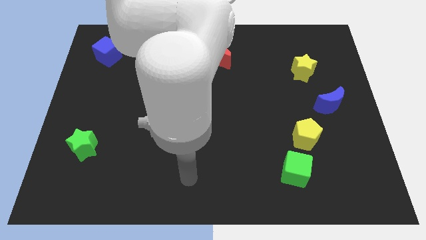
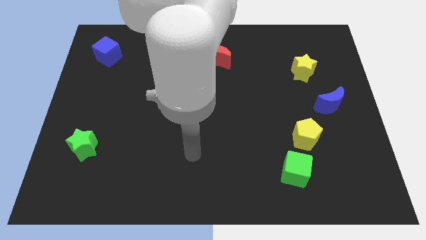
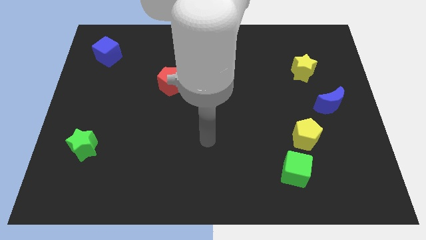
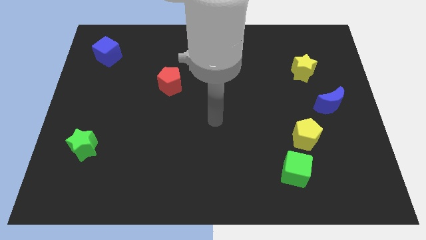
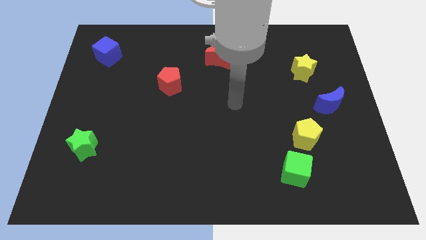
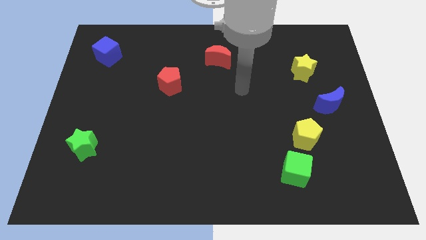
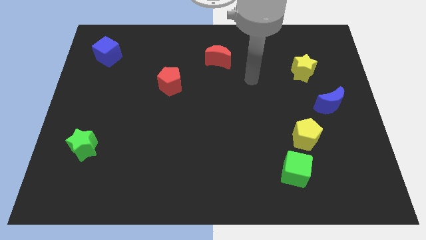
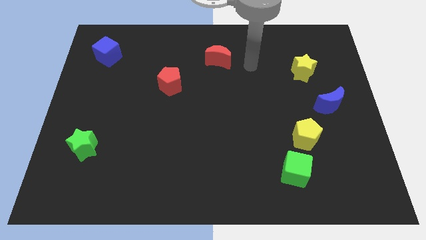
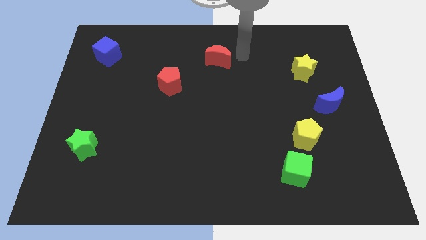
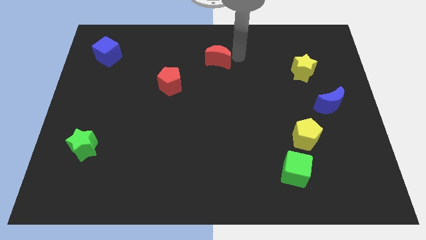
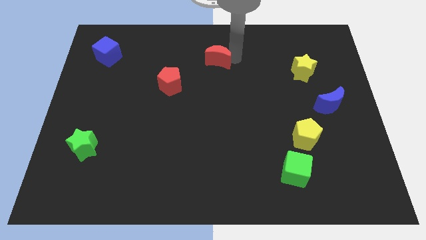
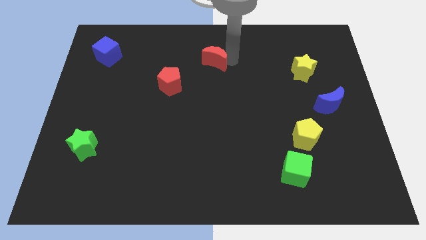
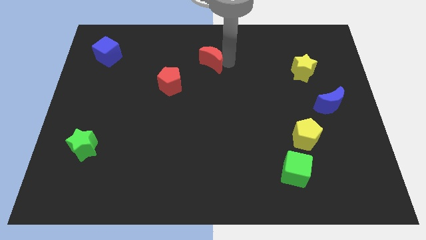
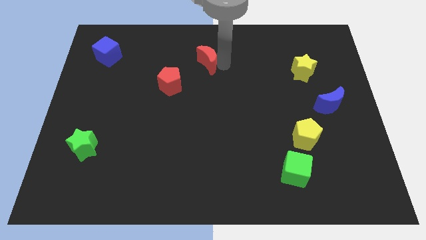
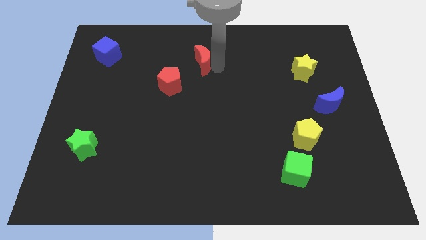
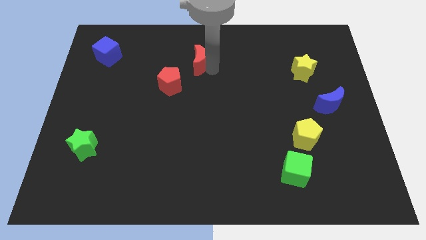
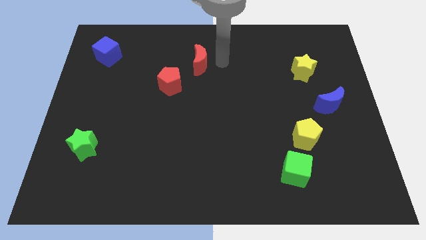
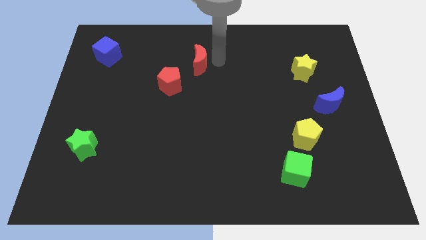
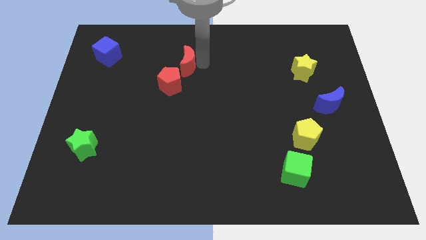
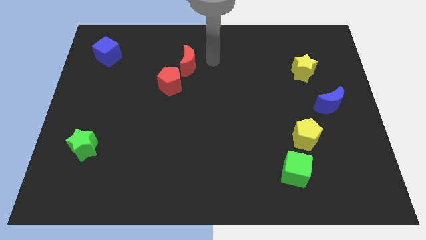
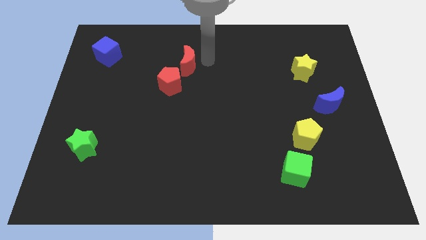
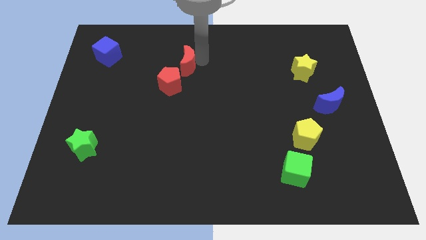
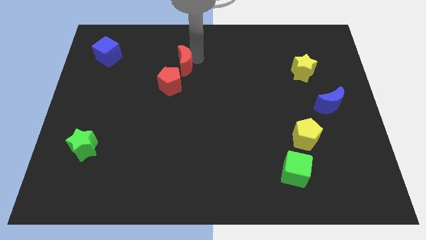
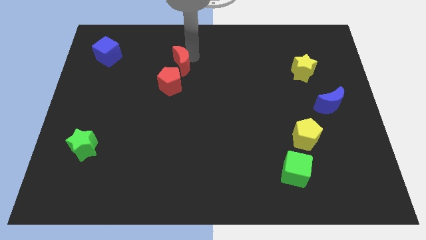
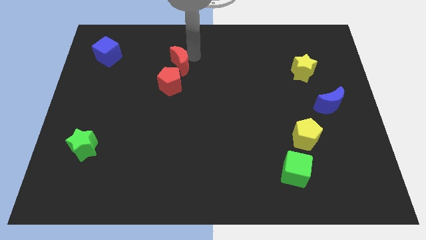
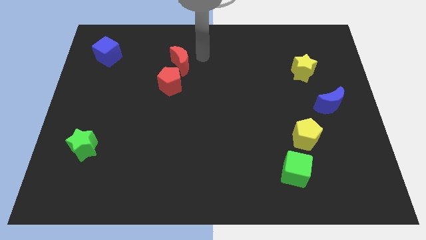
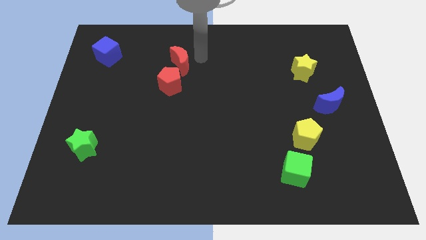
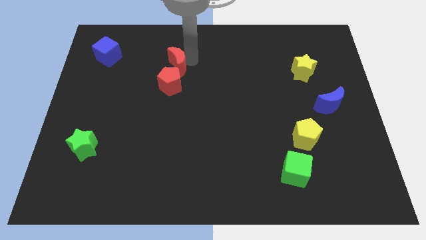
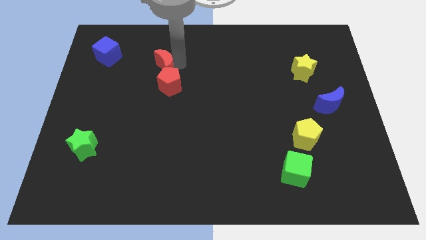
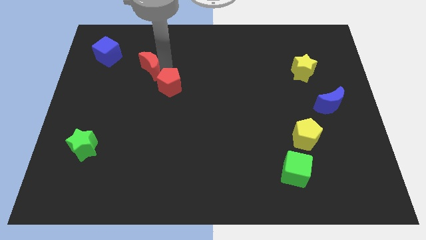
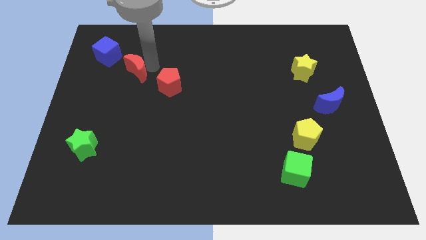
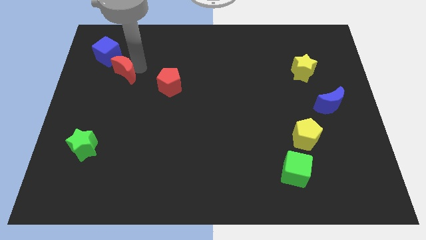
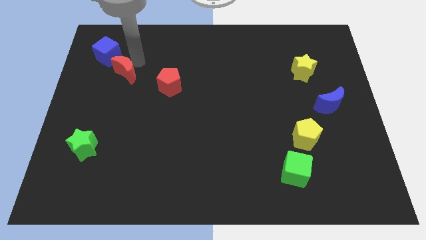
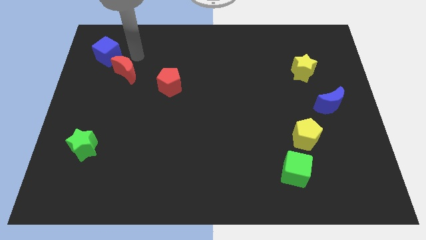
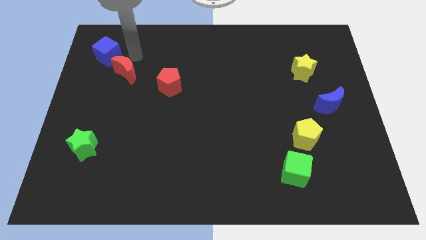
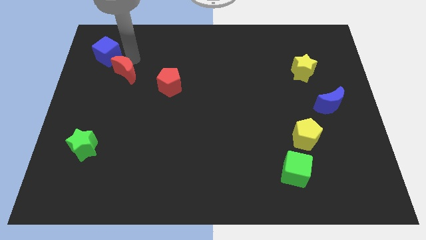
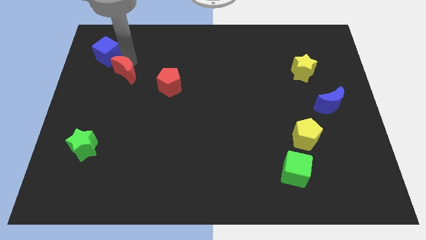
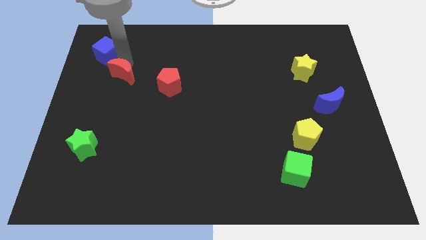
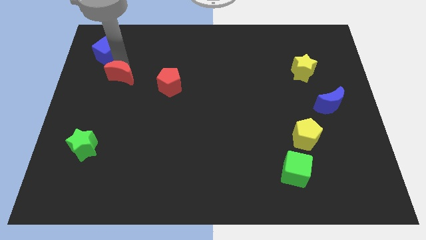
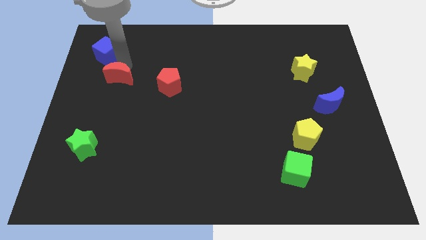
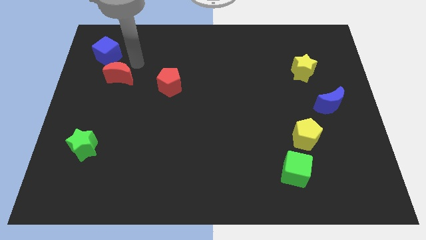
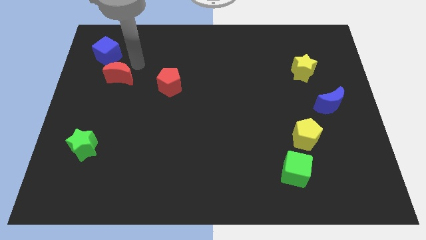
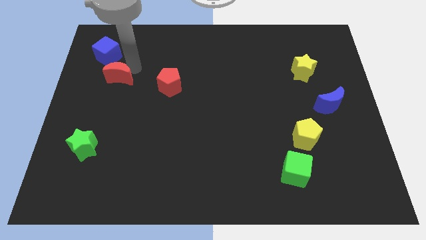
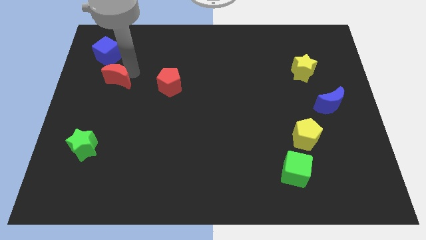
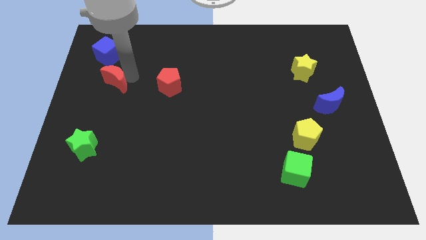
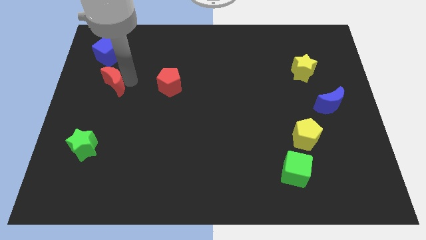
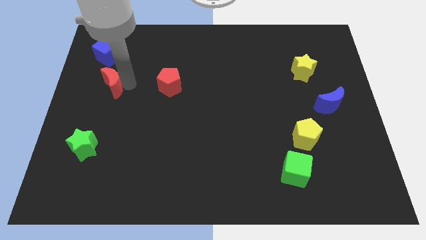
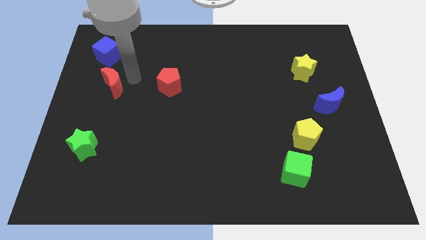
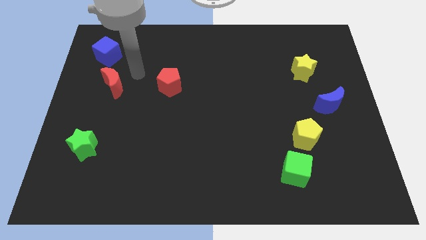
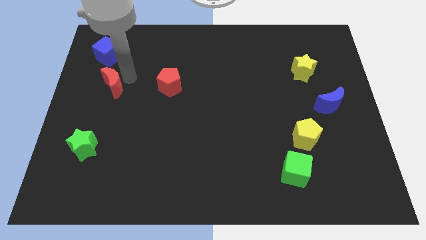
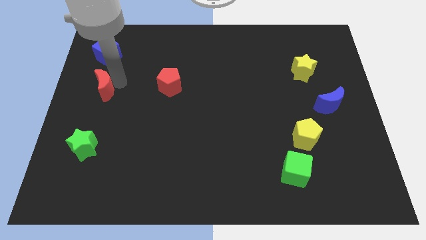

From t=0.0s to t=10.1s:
move the red moon to the left side of the board
